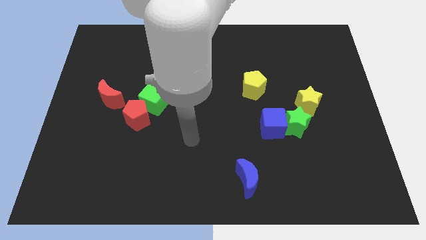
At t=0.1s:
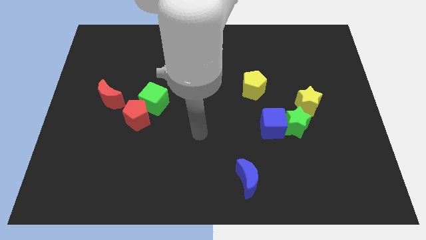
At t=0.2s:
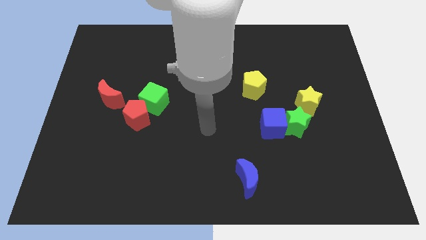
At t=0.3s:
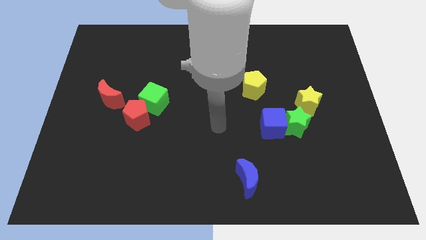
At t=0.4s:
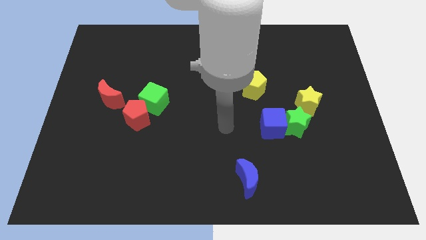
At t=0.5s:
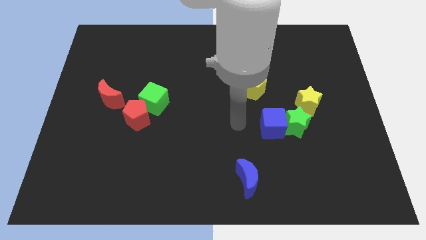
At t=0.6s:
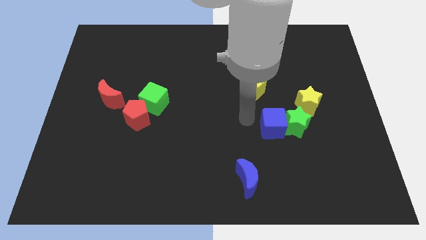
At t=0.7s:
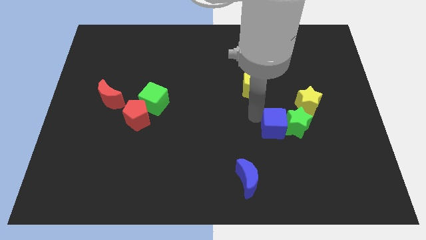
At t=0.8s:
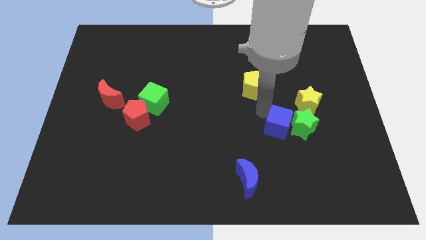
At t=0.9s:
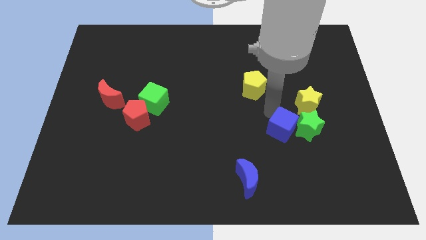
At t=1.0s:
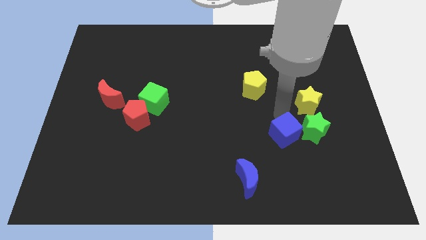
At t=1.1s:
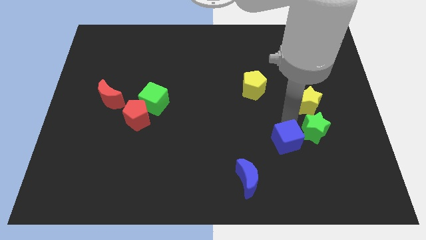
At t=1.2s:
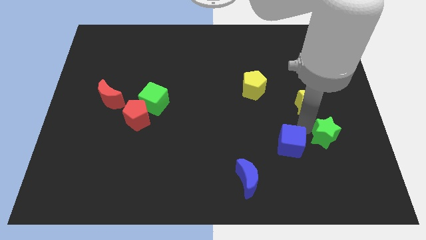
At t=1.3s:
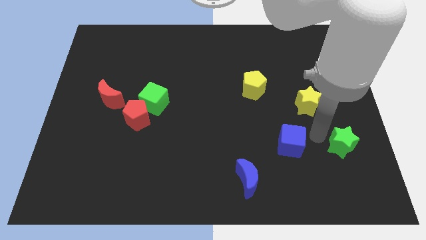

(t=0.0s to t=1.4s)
move the blue cube away from the green star

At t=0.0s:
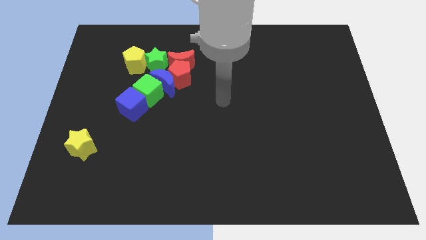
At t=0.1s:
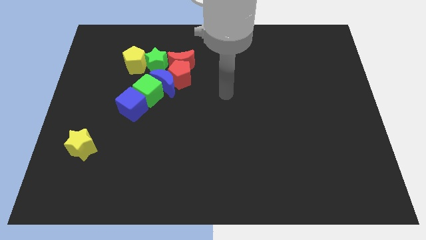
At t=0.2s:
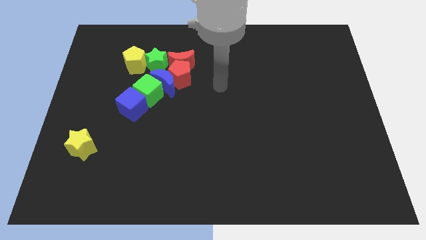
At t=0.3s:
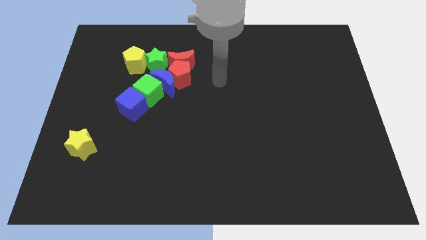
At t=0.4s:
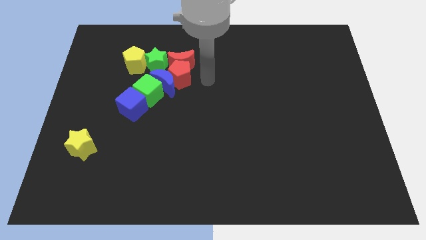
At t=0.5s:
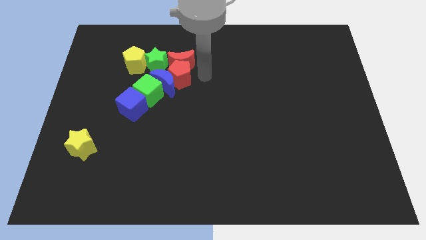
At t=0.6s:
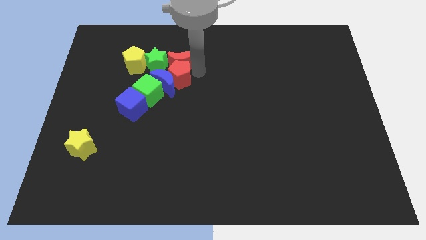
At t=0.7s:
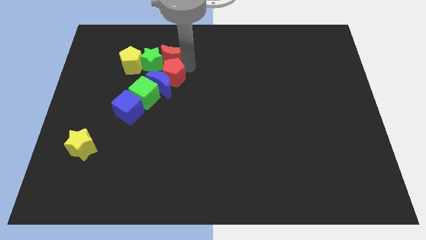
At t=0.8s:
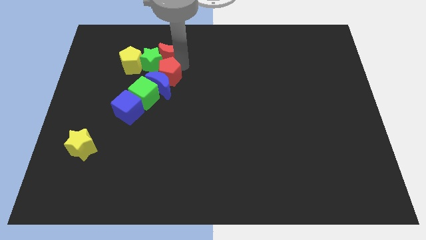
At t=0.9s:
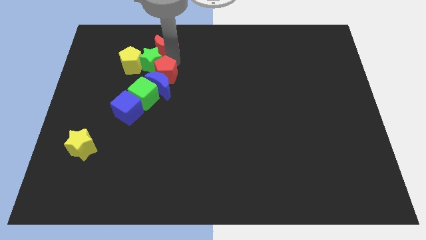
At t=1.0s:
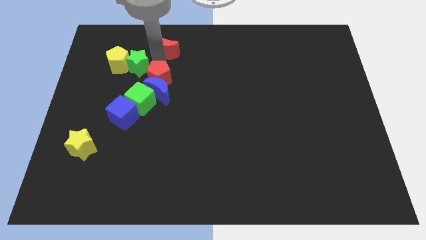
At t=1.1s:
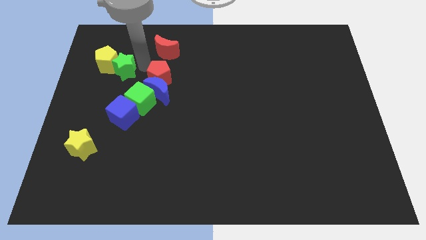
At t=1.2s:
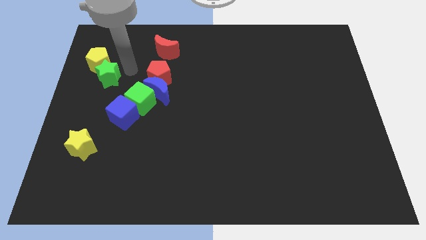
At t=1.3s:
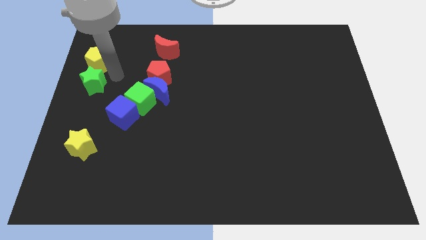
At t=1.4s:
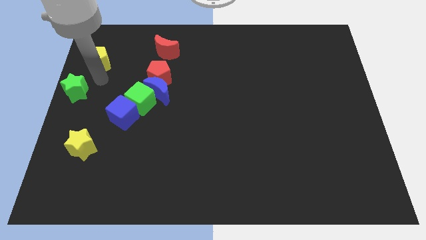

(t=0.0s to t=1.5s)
move the yellow pentagon away from the green star

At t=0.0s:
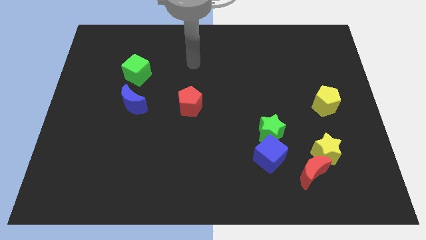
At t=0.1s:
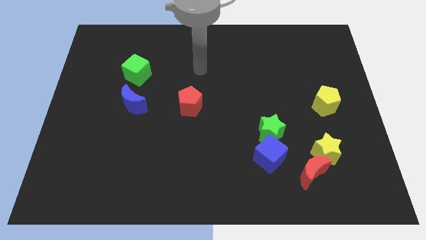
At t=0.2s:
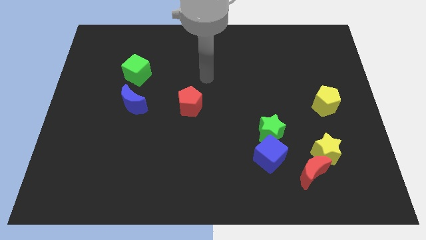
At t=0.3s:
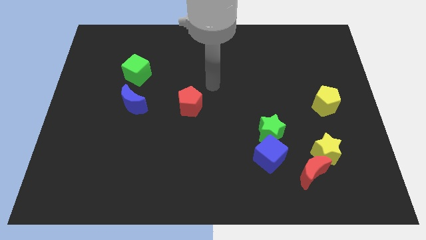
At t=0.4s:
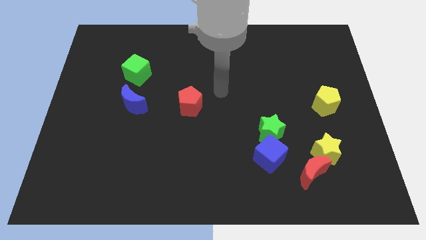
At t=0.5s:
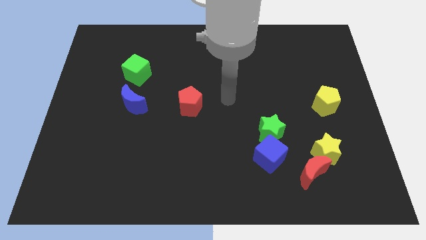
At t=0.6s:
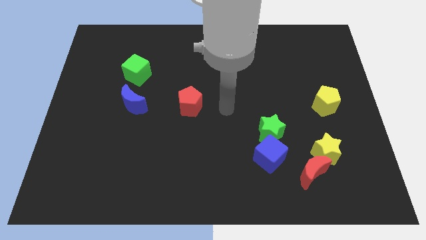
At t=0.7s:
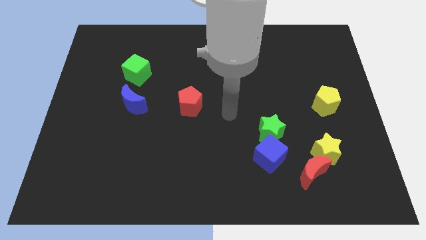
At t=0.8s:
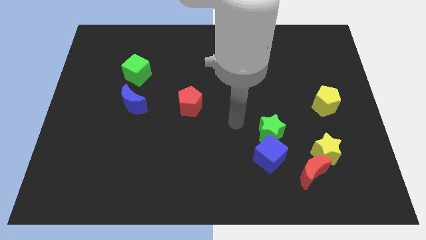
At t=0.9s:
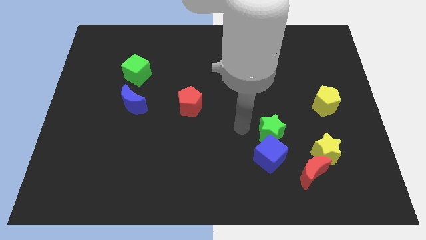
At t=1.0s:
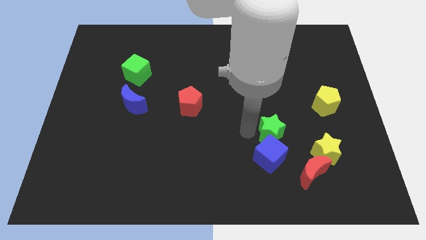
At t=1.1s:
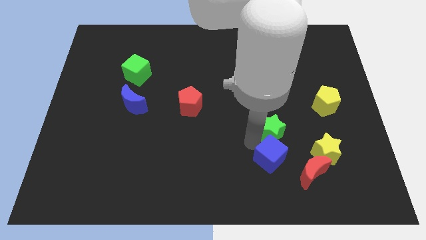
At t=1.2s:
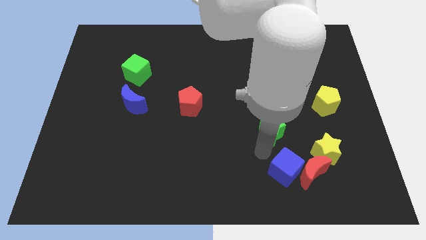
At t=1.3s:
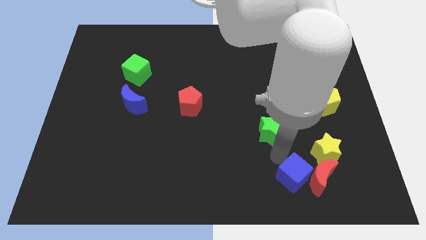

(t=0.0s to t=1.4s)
pull the green star apart from the blue cube

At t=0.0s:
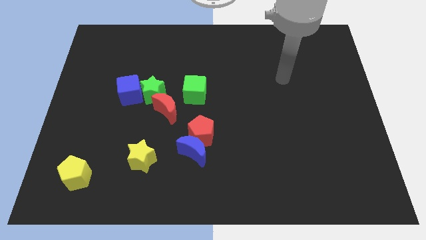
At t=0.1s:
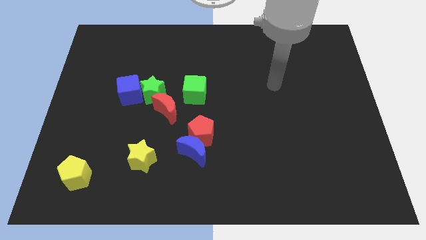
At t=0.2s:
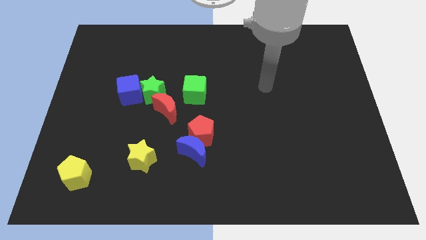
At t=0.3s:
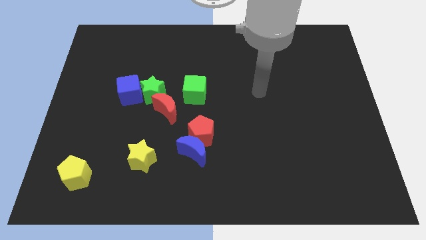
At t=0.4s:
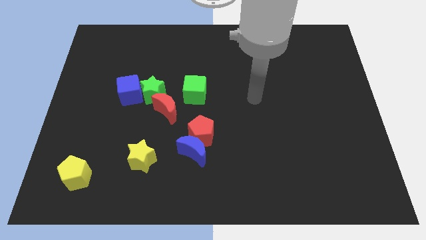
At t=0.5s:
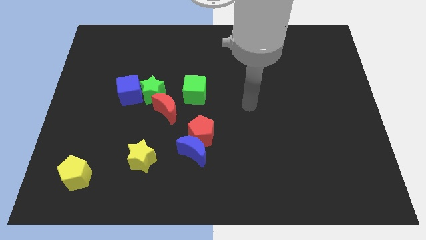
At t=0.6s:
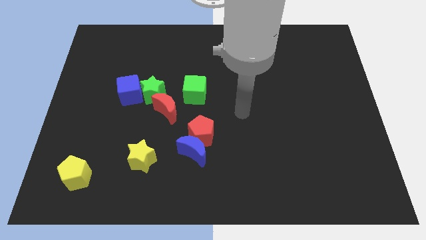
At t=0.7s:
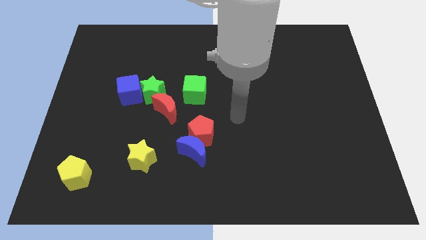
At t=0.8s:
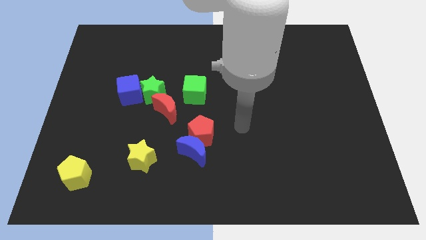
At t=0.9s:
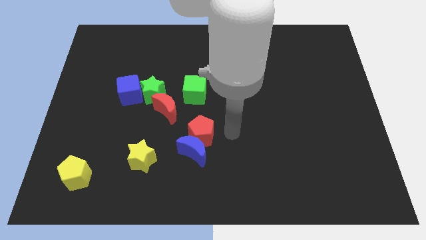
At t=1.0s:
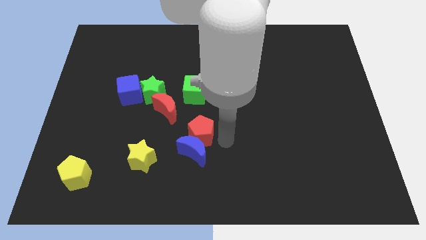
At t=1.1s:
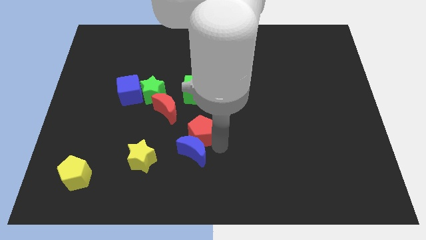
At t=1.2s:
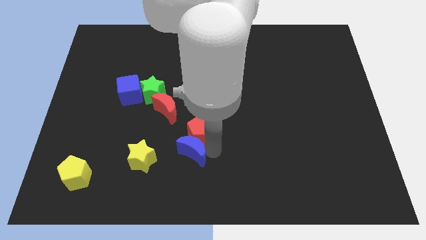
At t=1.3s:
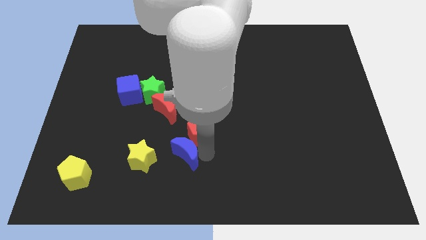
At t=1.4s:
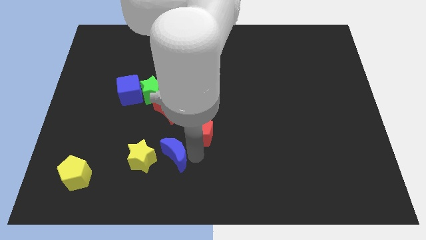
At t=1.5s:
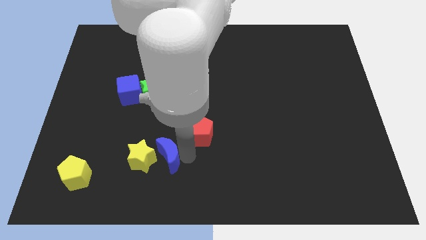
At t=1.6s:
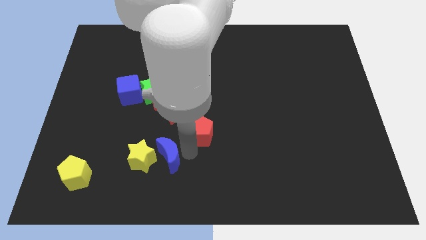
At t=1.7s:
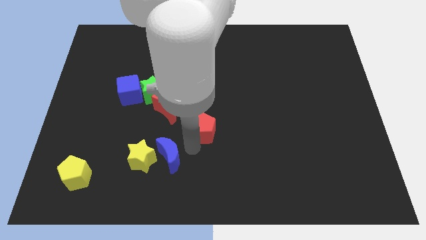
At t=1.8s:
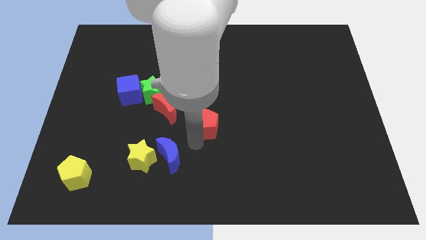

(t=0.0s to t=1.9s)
separate the red pentagon from the blue moon

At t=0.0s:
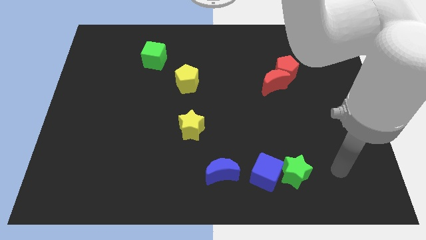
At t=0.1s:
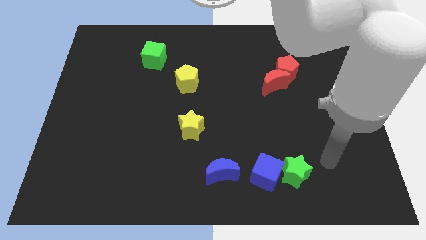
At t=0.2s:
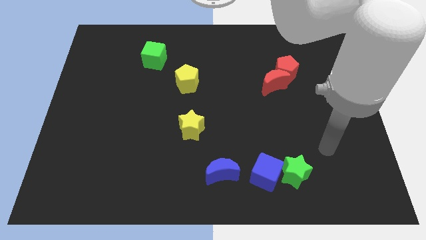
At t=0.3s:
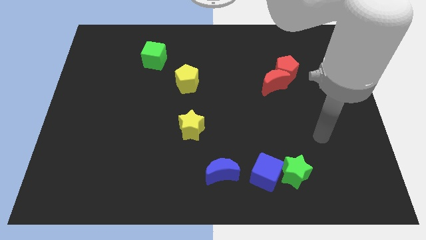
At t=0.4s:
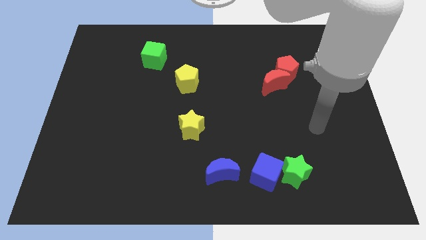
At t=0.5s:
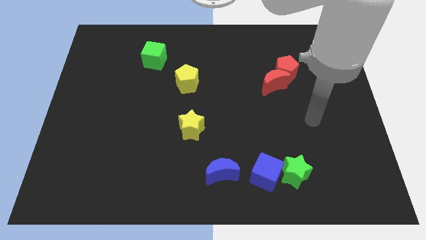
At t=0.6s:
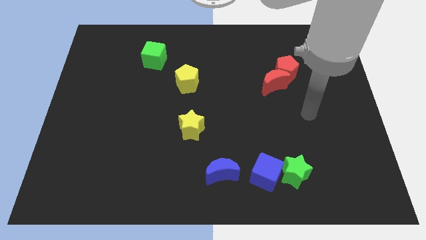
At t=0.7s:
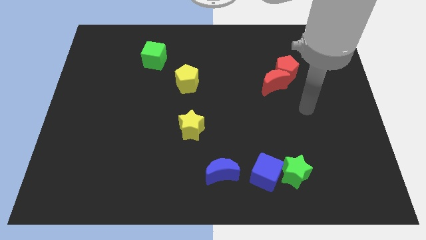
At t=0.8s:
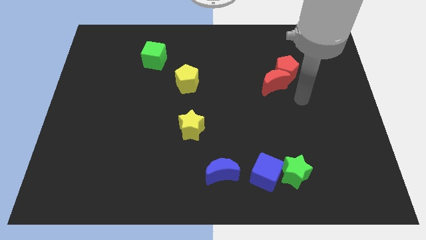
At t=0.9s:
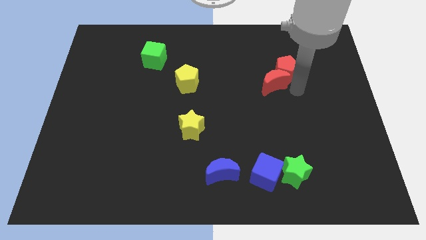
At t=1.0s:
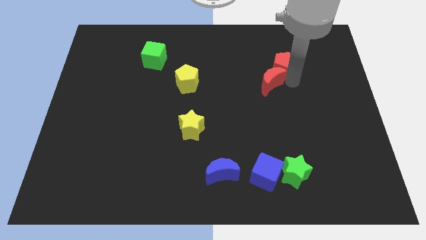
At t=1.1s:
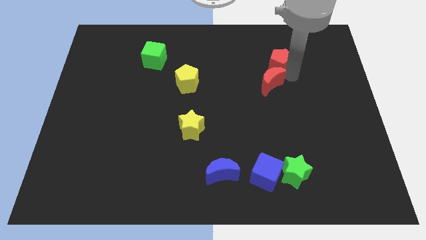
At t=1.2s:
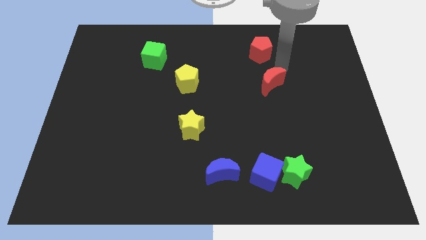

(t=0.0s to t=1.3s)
pull the red moon apart from the red pentagon

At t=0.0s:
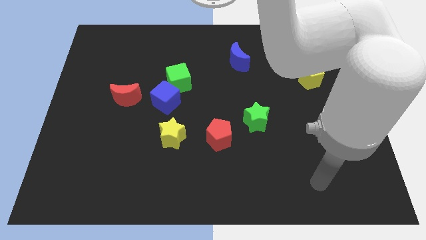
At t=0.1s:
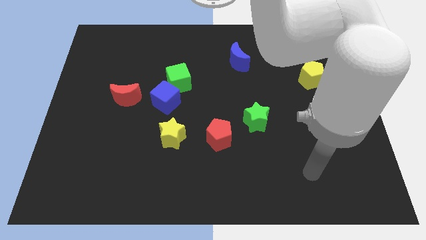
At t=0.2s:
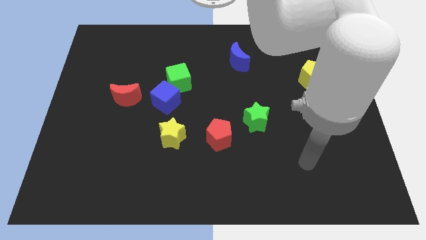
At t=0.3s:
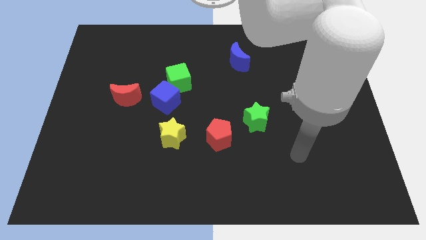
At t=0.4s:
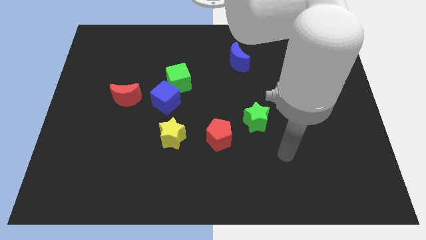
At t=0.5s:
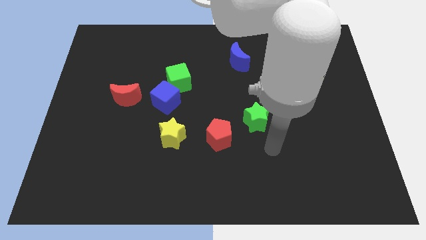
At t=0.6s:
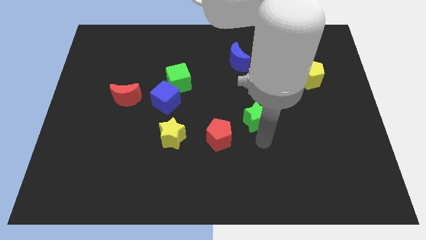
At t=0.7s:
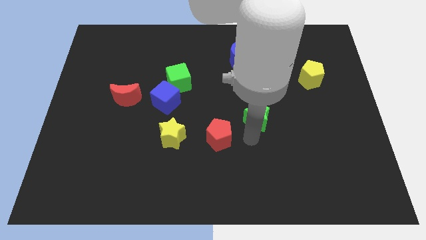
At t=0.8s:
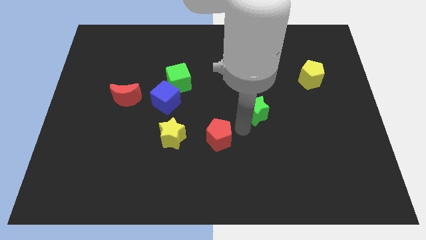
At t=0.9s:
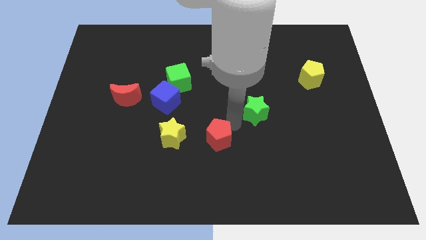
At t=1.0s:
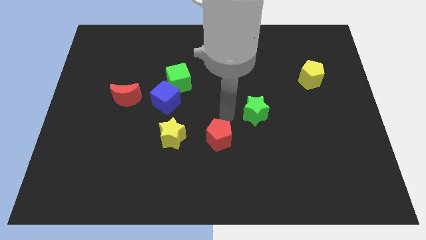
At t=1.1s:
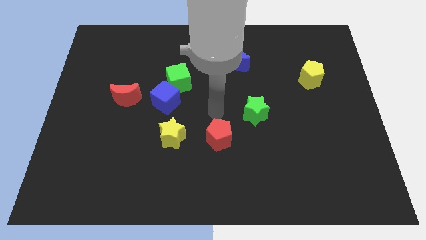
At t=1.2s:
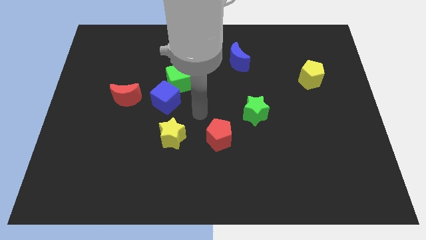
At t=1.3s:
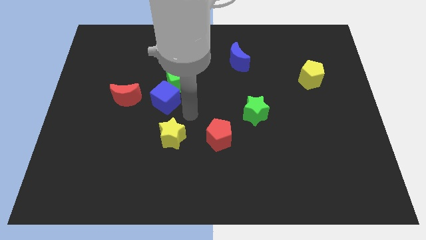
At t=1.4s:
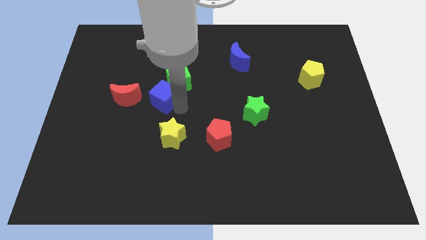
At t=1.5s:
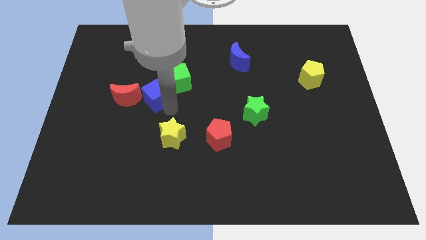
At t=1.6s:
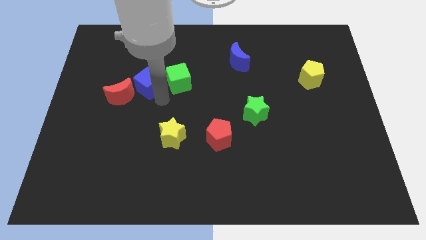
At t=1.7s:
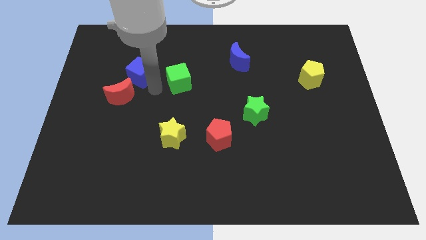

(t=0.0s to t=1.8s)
pull the green cube apart from the blue cube
